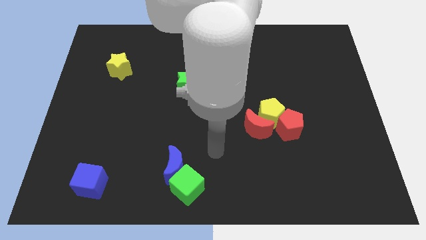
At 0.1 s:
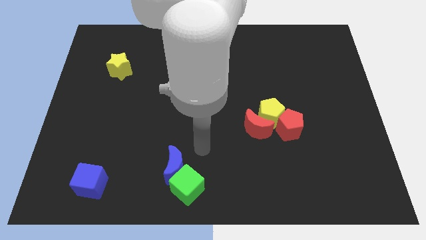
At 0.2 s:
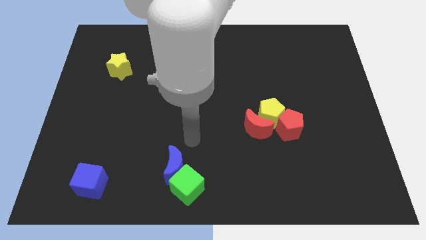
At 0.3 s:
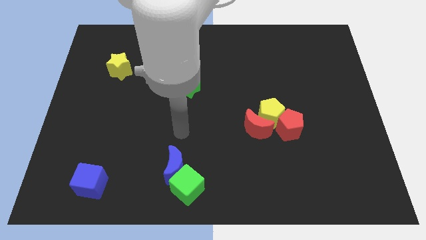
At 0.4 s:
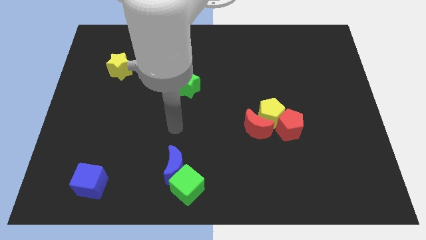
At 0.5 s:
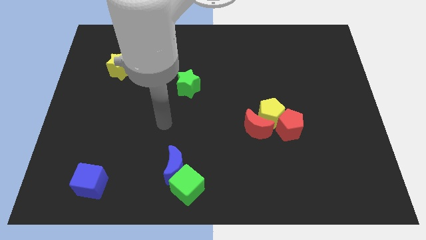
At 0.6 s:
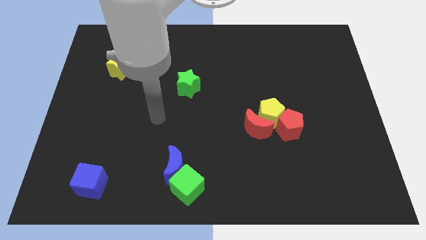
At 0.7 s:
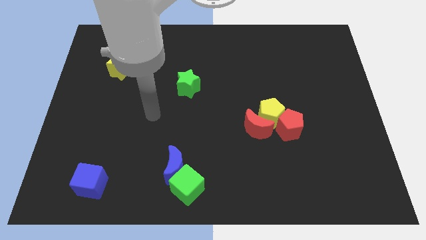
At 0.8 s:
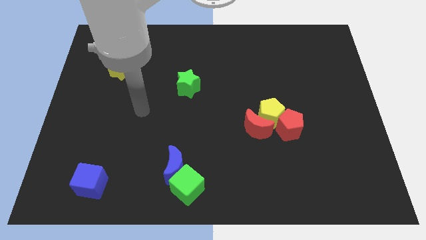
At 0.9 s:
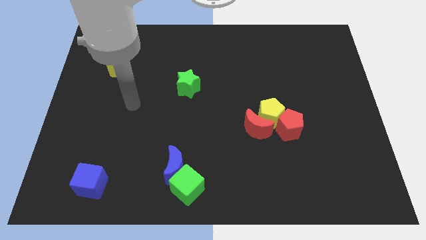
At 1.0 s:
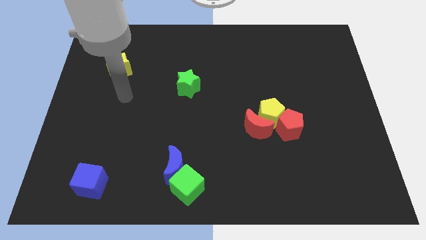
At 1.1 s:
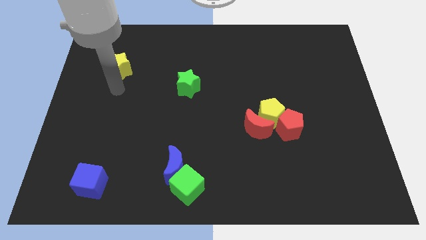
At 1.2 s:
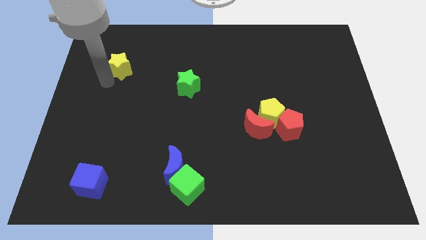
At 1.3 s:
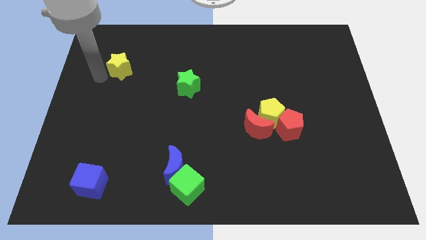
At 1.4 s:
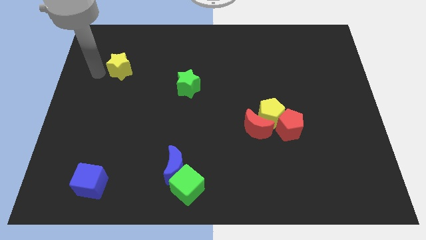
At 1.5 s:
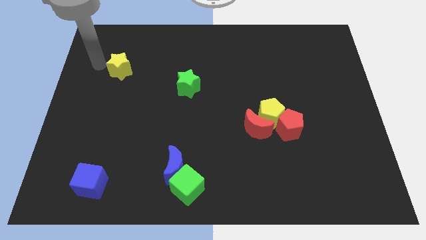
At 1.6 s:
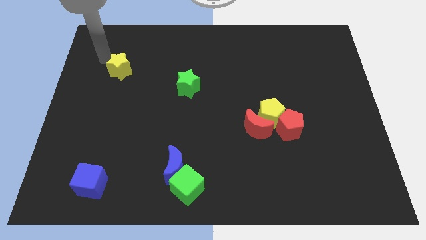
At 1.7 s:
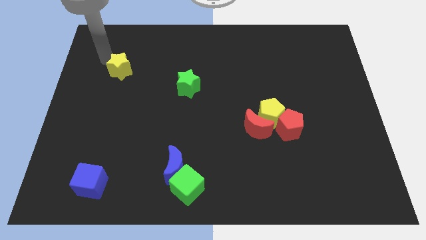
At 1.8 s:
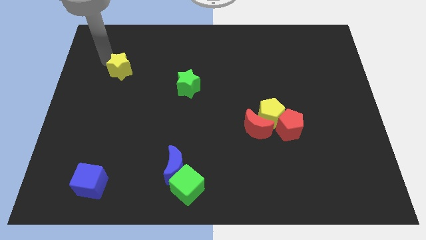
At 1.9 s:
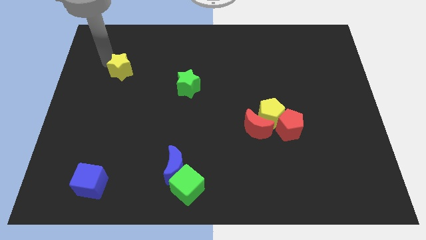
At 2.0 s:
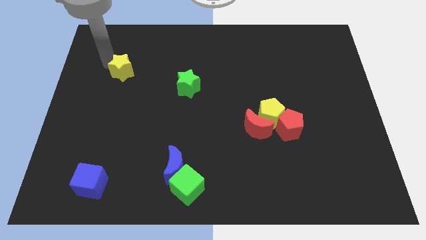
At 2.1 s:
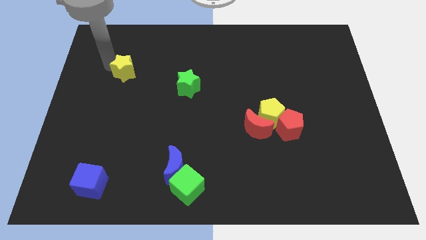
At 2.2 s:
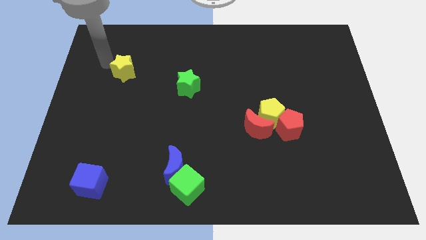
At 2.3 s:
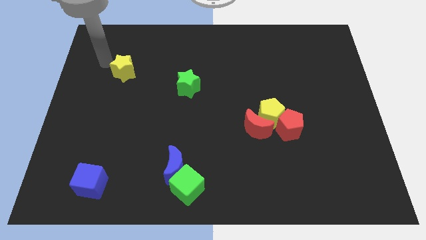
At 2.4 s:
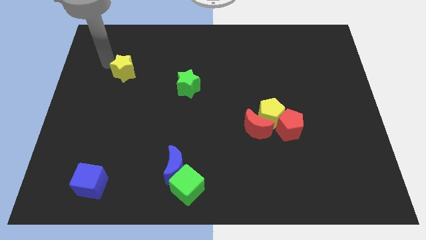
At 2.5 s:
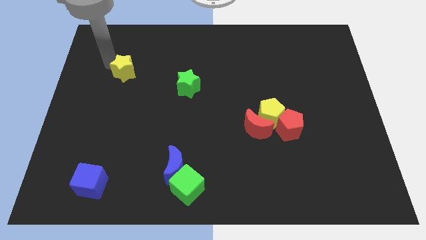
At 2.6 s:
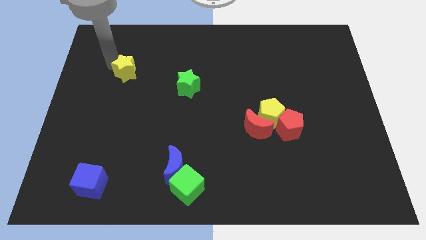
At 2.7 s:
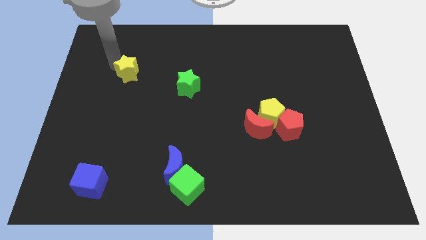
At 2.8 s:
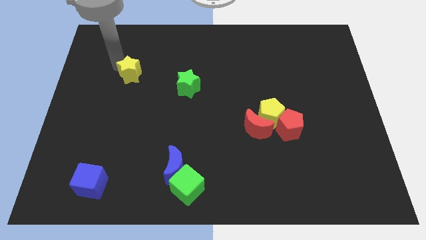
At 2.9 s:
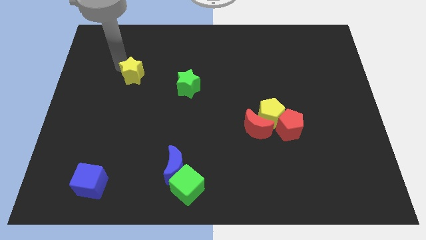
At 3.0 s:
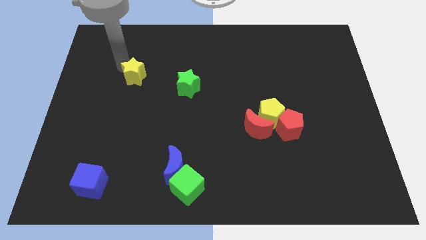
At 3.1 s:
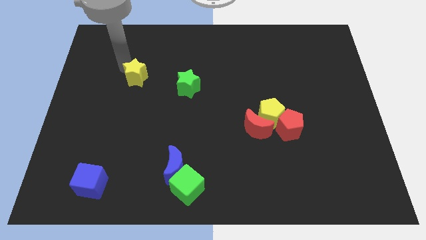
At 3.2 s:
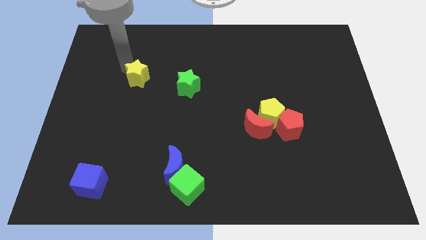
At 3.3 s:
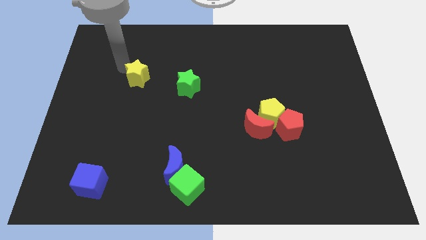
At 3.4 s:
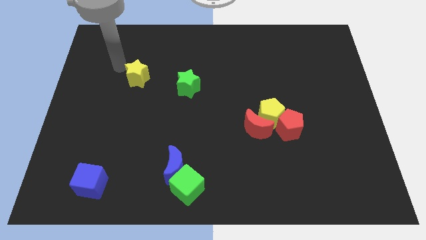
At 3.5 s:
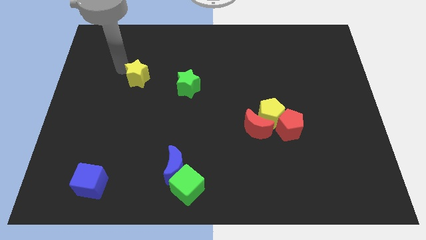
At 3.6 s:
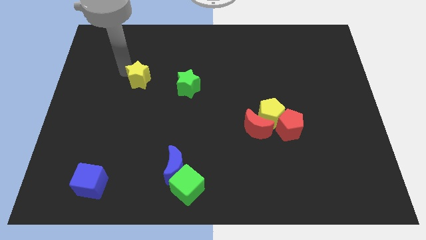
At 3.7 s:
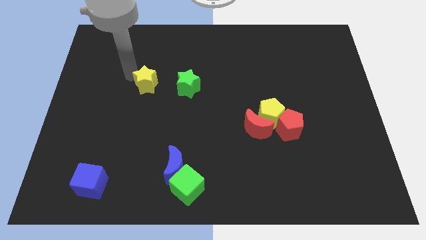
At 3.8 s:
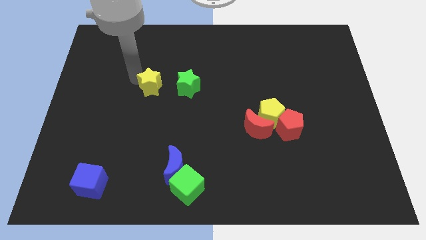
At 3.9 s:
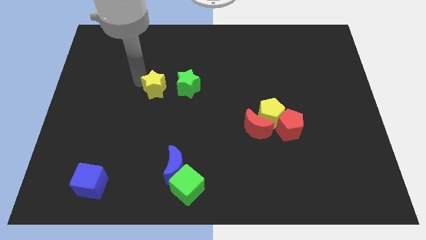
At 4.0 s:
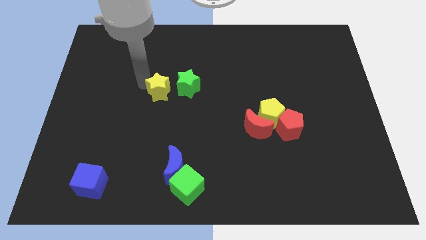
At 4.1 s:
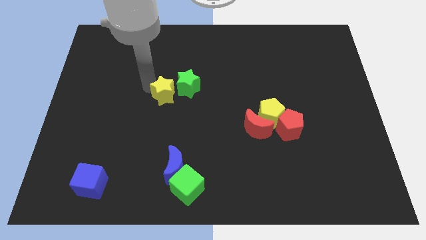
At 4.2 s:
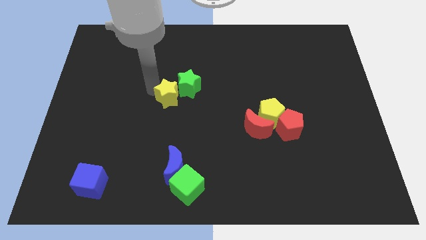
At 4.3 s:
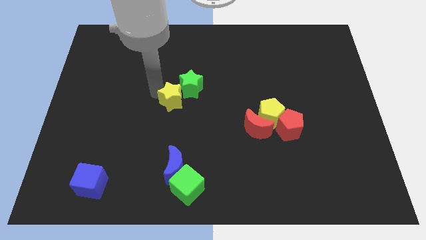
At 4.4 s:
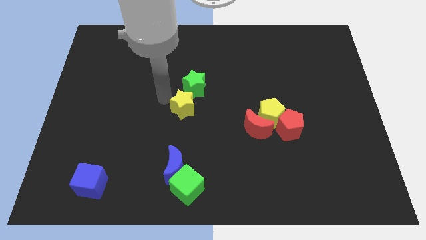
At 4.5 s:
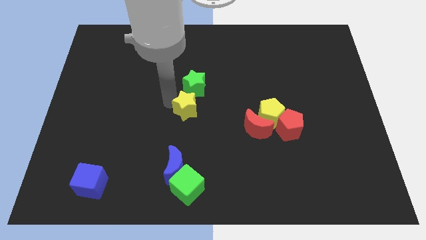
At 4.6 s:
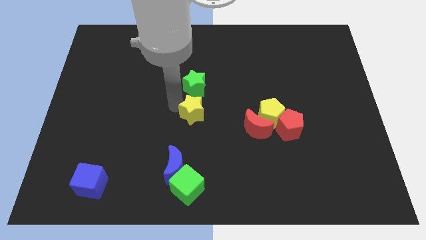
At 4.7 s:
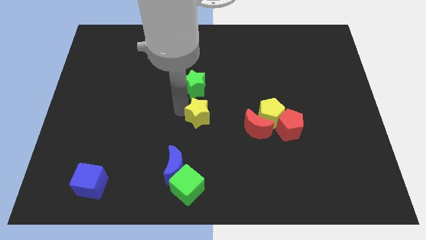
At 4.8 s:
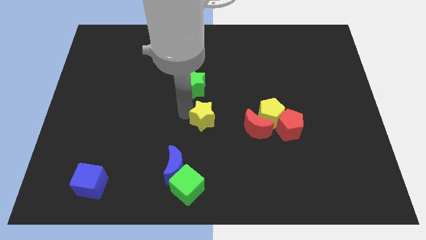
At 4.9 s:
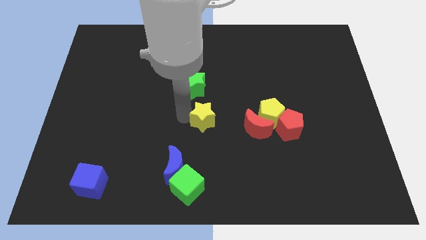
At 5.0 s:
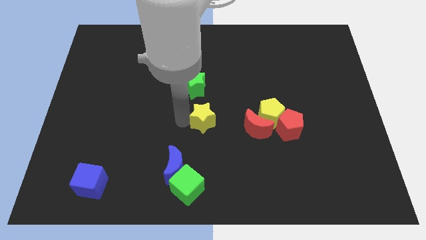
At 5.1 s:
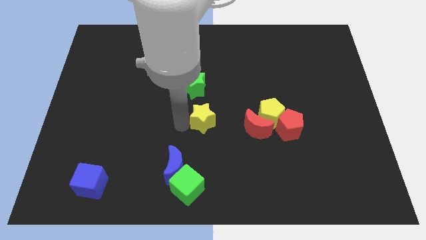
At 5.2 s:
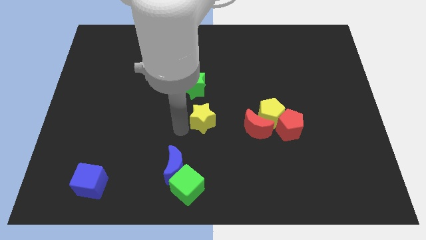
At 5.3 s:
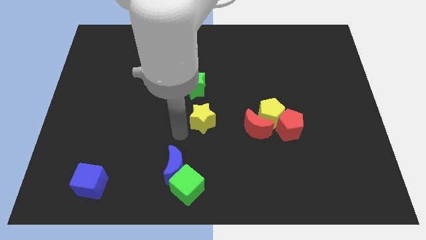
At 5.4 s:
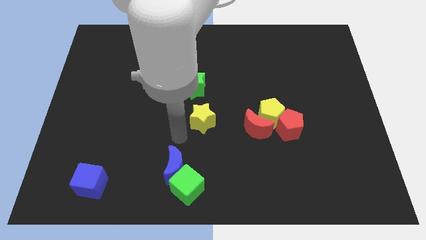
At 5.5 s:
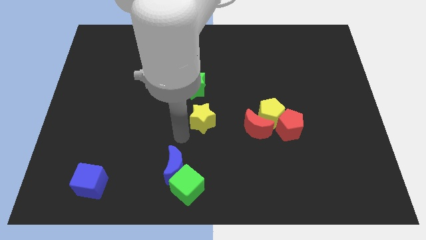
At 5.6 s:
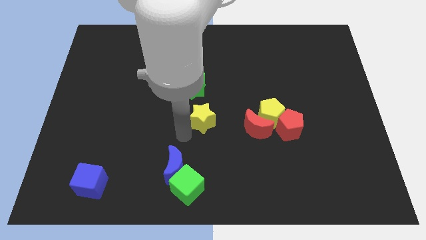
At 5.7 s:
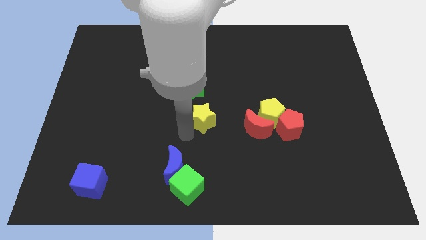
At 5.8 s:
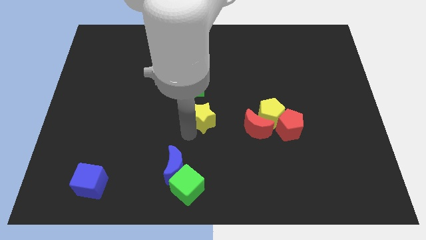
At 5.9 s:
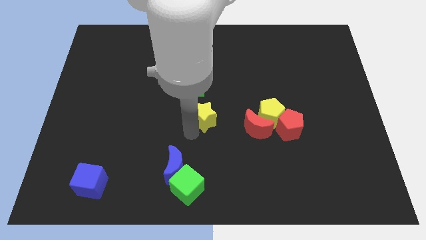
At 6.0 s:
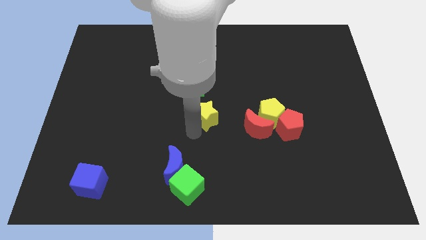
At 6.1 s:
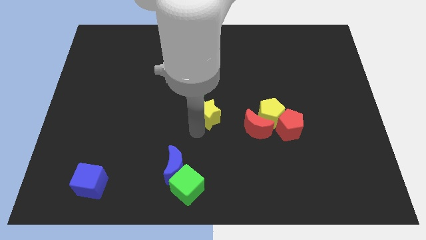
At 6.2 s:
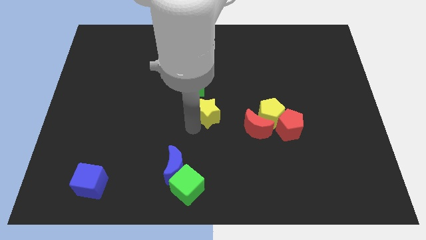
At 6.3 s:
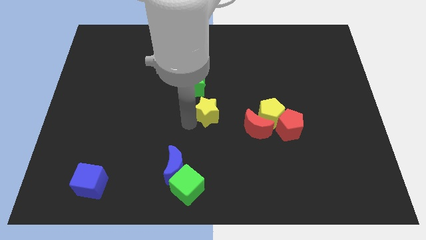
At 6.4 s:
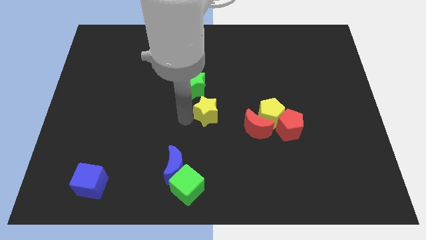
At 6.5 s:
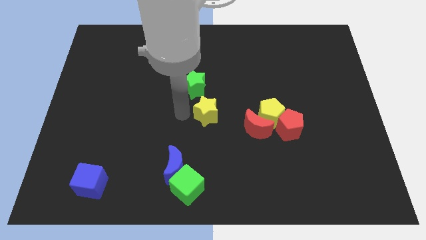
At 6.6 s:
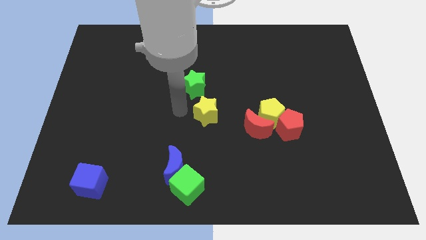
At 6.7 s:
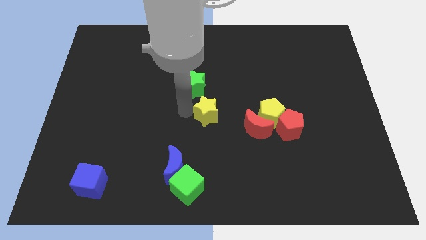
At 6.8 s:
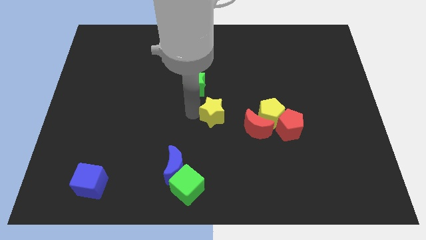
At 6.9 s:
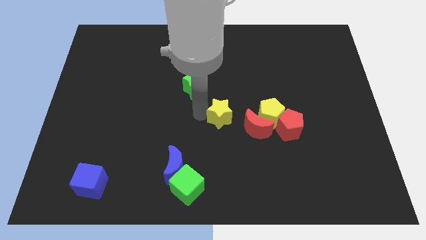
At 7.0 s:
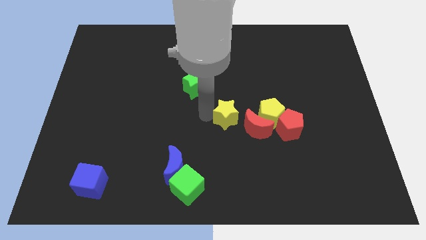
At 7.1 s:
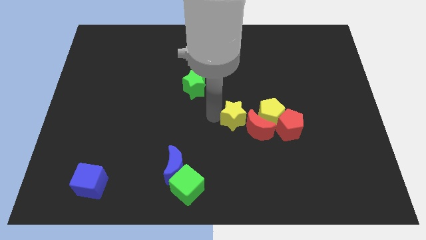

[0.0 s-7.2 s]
slide the yellow star towards the red moon

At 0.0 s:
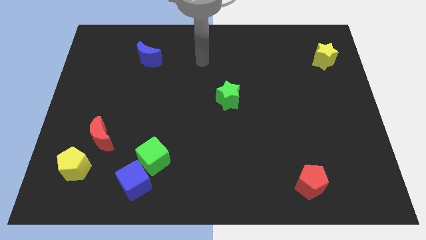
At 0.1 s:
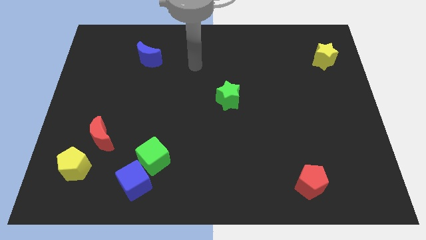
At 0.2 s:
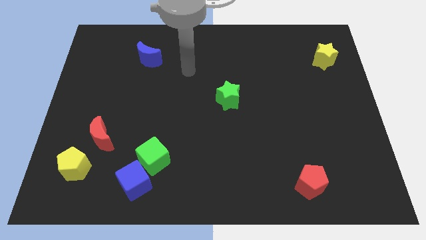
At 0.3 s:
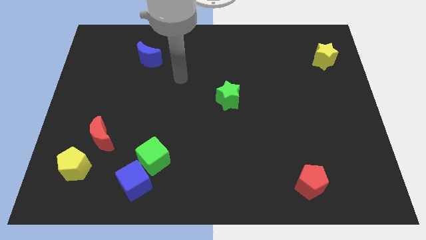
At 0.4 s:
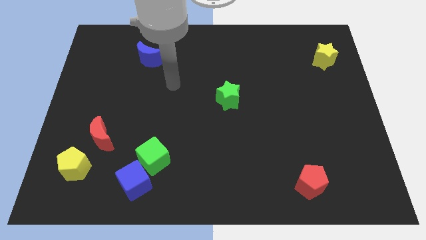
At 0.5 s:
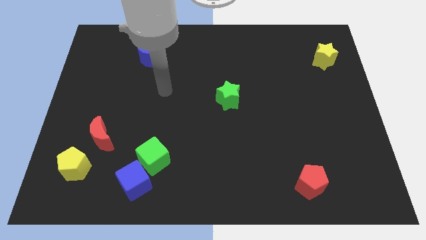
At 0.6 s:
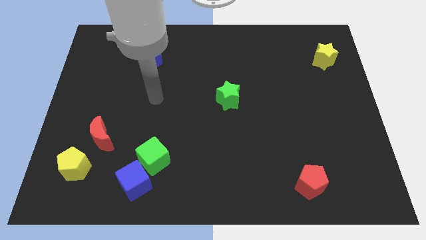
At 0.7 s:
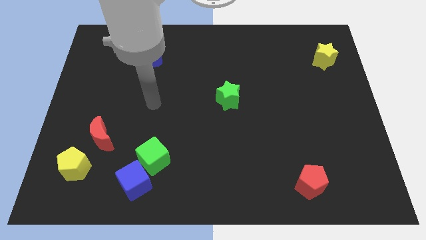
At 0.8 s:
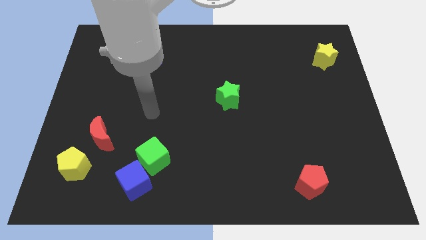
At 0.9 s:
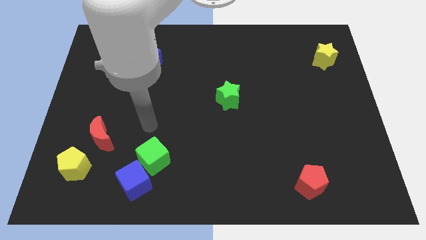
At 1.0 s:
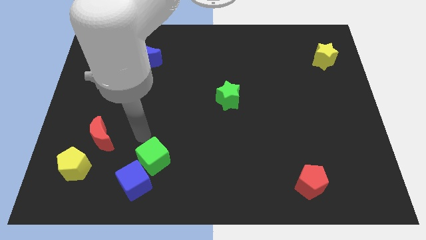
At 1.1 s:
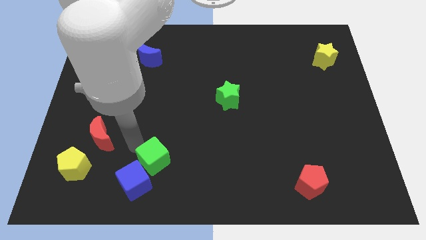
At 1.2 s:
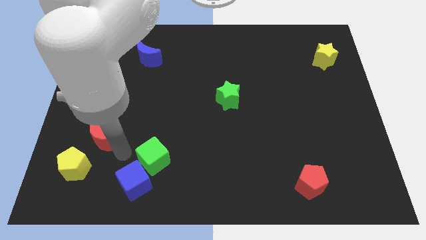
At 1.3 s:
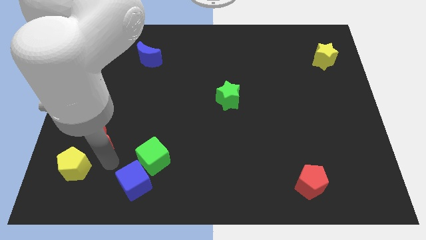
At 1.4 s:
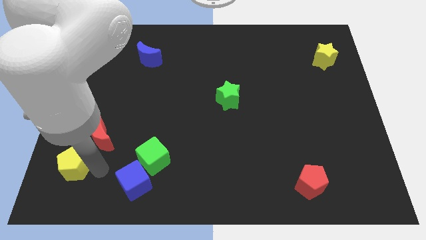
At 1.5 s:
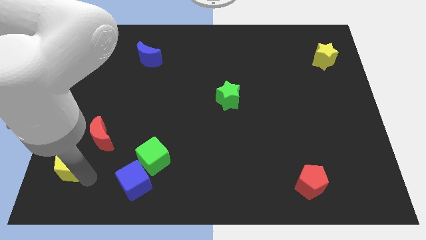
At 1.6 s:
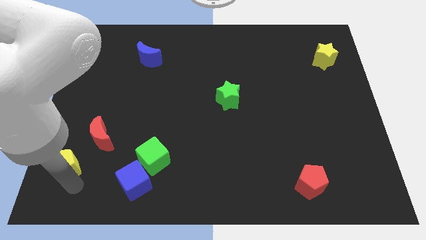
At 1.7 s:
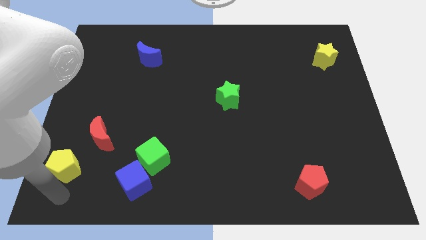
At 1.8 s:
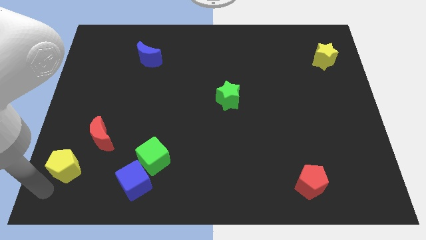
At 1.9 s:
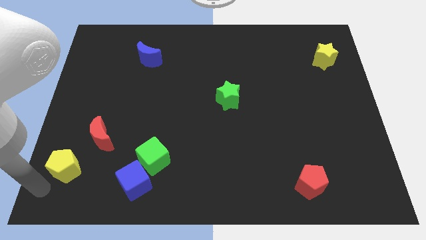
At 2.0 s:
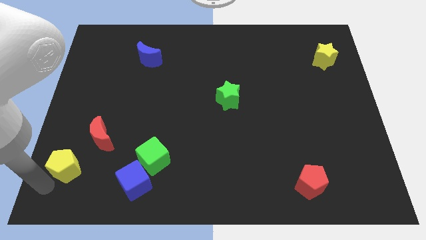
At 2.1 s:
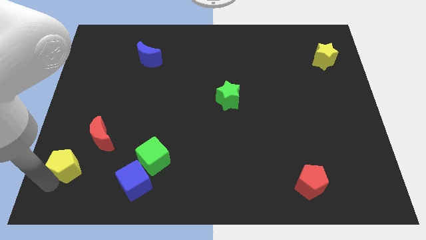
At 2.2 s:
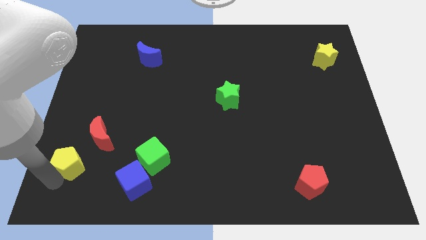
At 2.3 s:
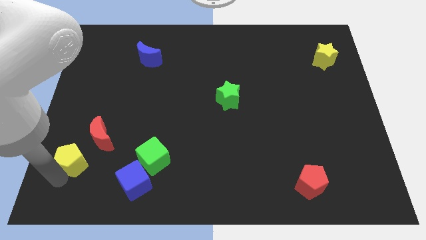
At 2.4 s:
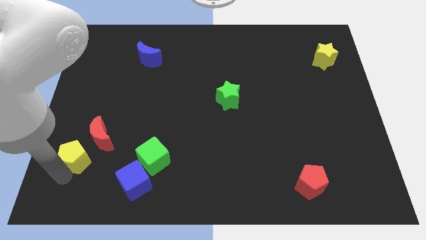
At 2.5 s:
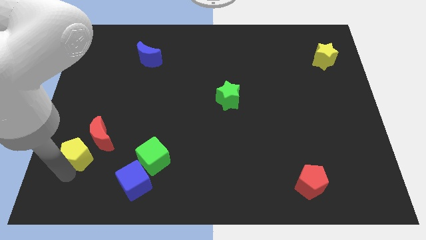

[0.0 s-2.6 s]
slide the yellow pentagon to the red moon
